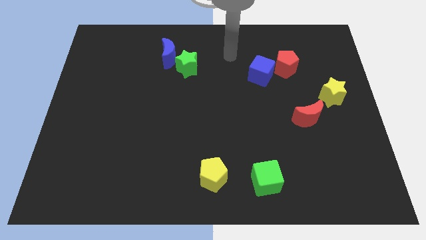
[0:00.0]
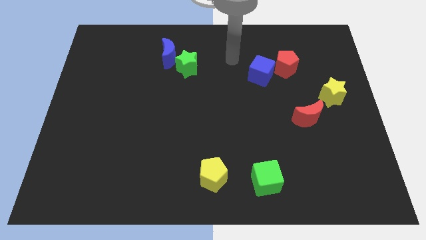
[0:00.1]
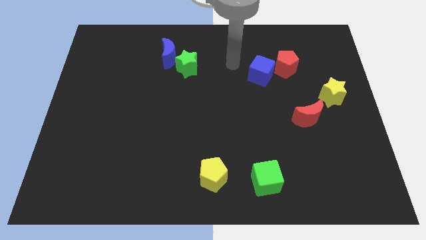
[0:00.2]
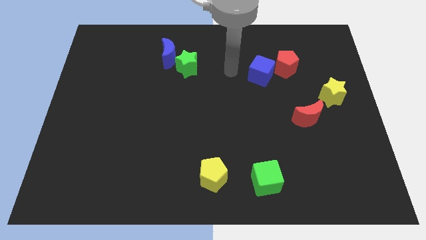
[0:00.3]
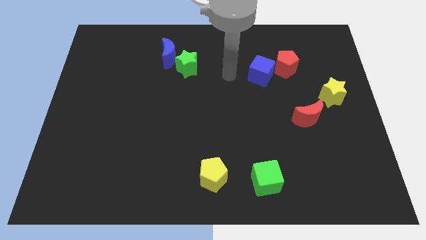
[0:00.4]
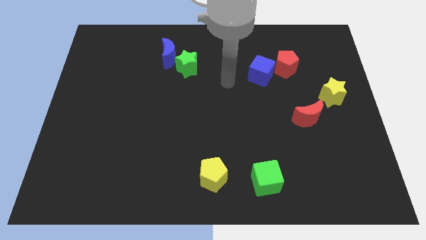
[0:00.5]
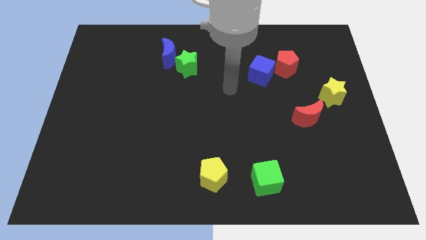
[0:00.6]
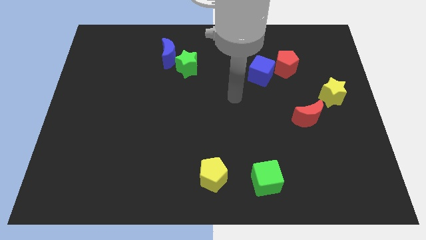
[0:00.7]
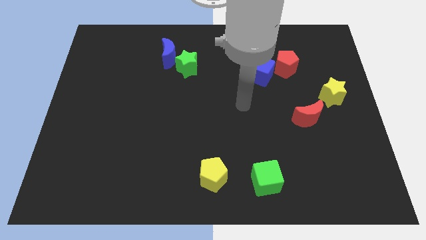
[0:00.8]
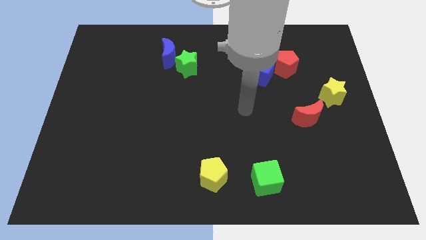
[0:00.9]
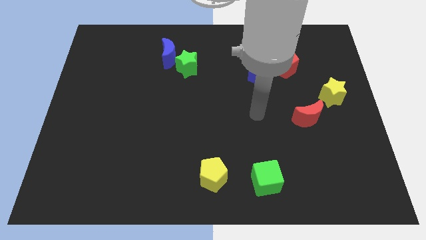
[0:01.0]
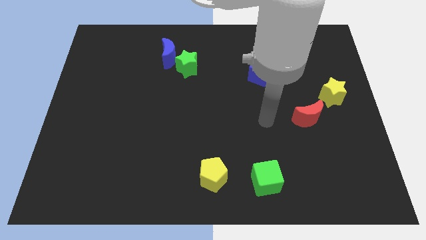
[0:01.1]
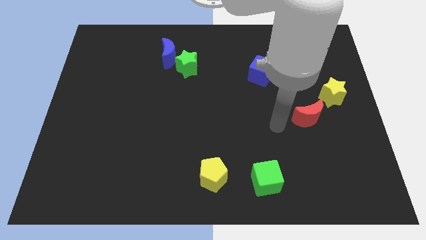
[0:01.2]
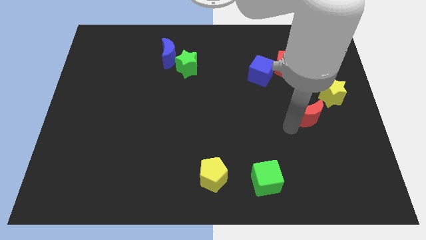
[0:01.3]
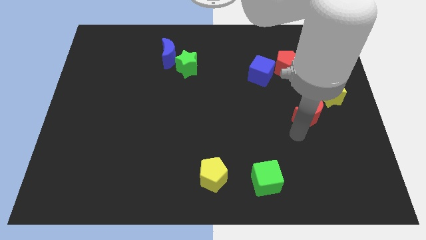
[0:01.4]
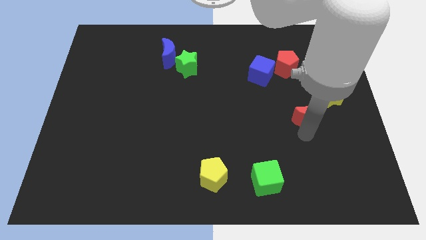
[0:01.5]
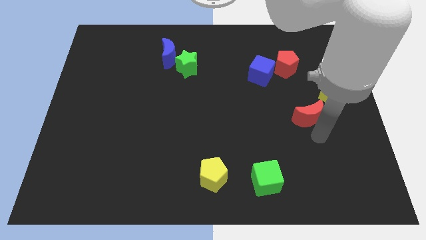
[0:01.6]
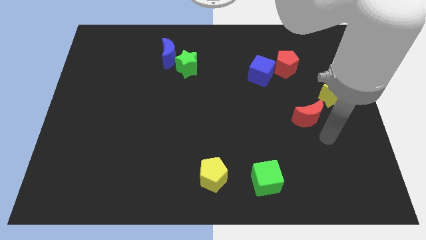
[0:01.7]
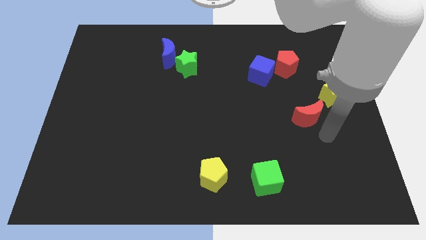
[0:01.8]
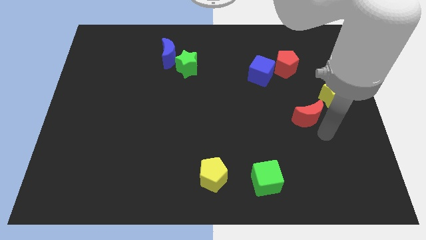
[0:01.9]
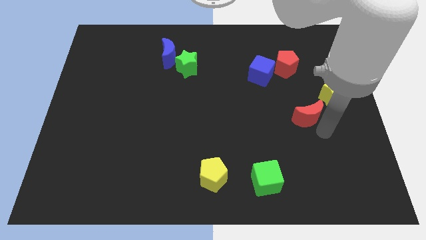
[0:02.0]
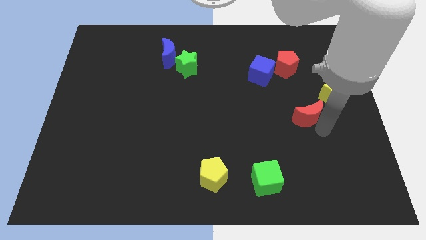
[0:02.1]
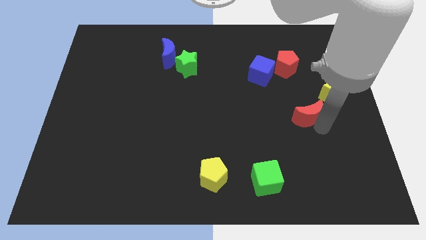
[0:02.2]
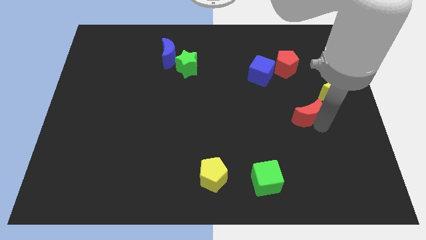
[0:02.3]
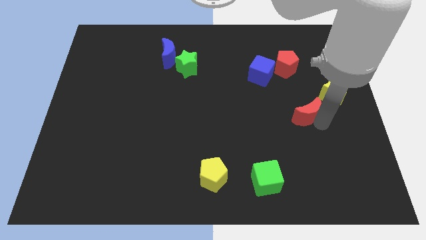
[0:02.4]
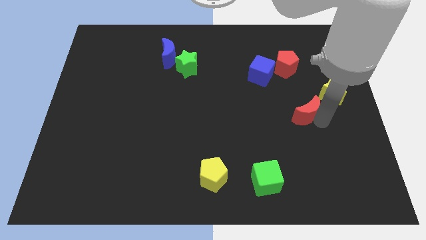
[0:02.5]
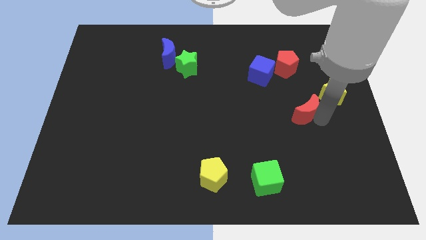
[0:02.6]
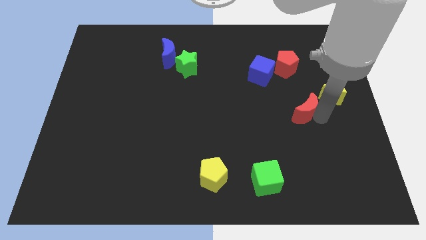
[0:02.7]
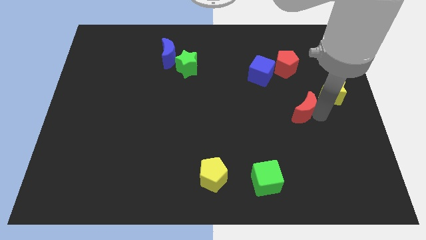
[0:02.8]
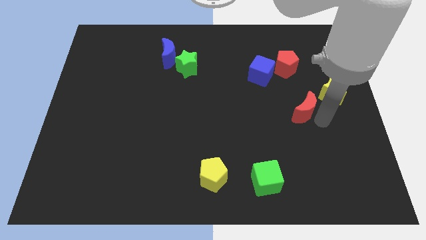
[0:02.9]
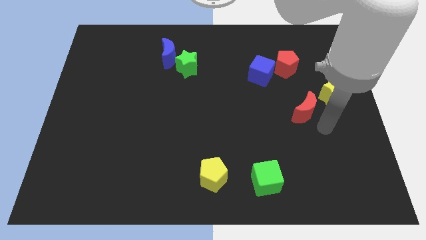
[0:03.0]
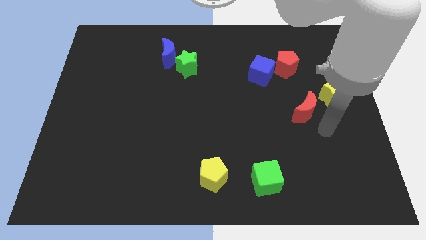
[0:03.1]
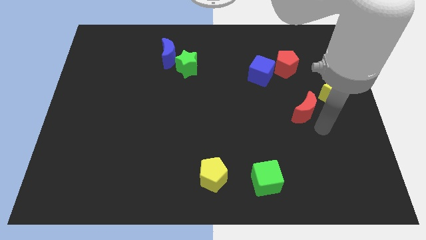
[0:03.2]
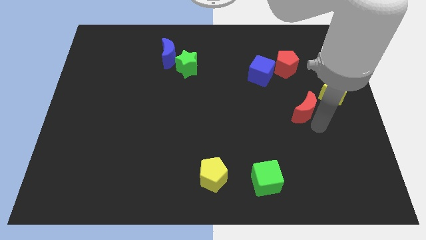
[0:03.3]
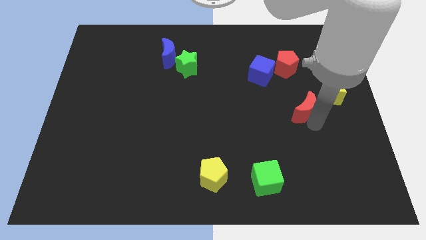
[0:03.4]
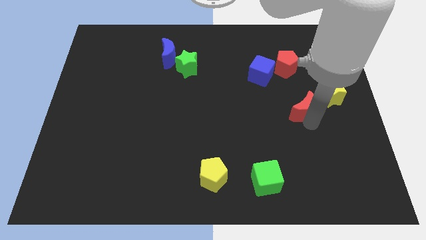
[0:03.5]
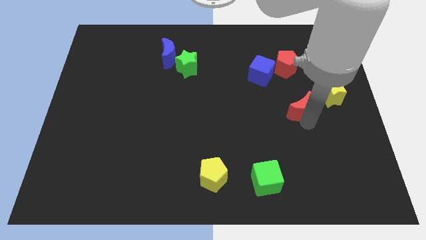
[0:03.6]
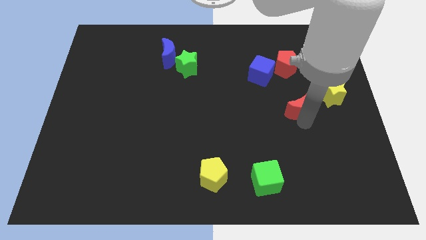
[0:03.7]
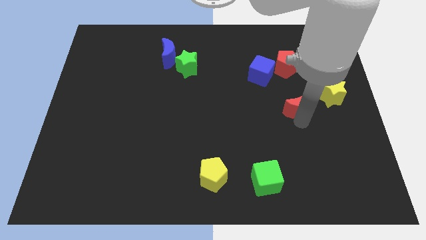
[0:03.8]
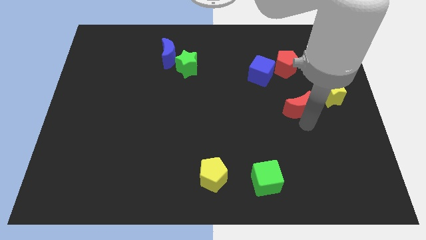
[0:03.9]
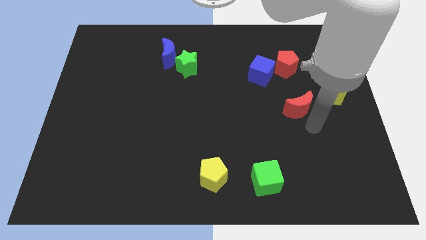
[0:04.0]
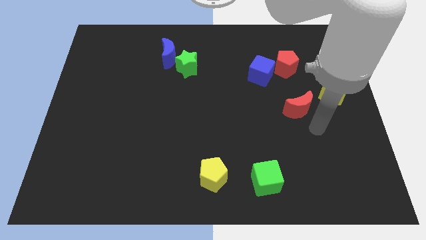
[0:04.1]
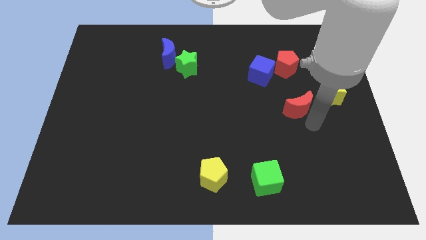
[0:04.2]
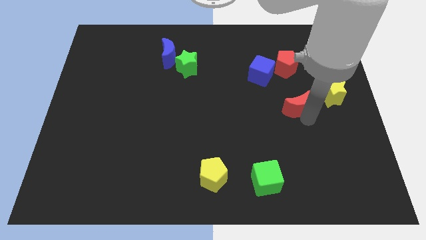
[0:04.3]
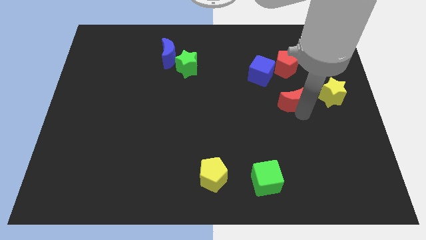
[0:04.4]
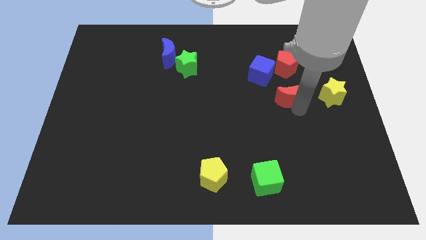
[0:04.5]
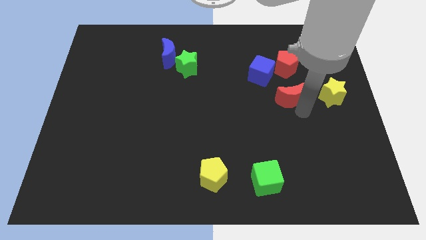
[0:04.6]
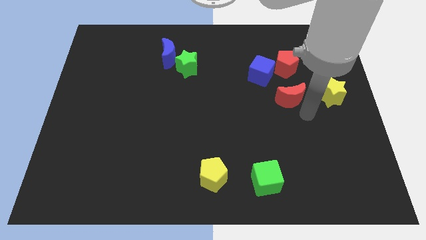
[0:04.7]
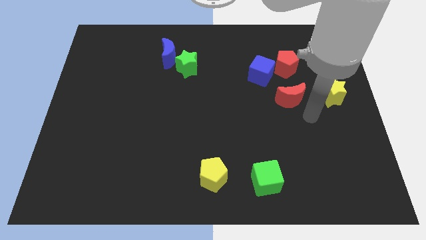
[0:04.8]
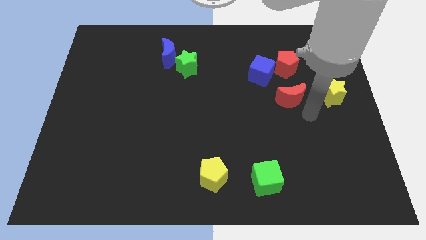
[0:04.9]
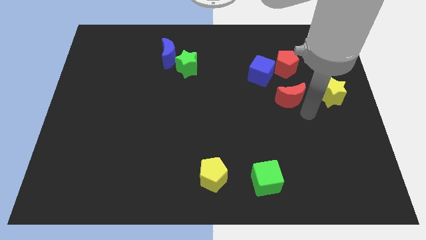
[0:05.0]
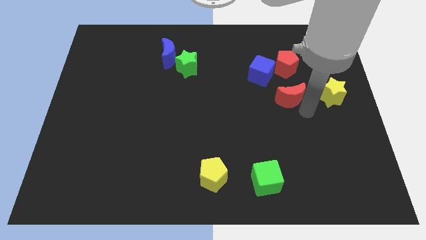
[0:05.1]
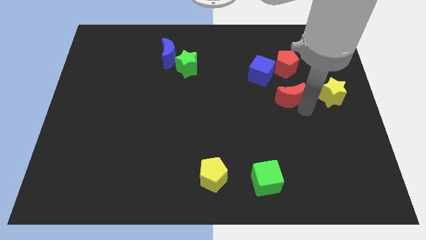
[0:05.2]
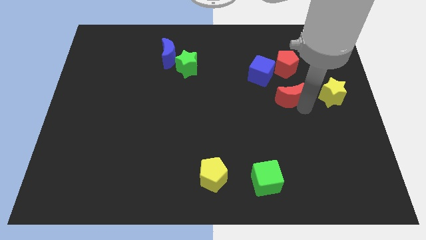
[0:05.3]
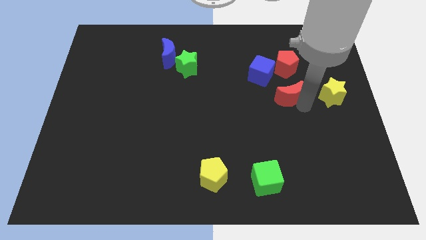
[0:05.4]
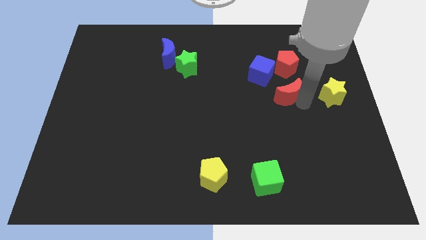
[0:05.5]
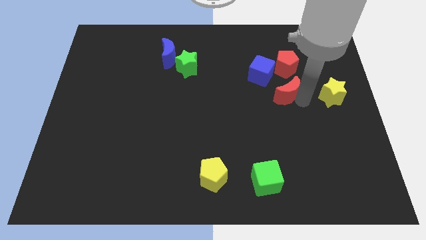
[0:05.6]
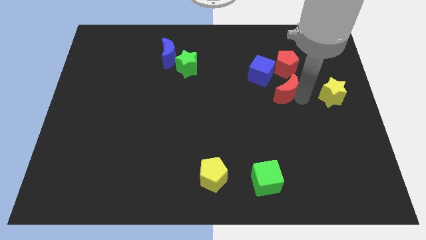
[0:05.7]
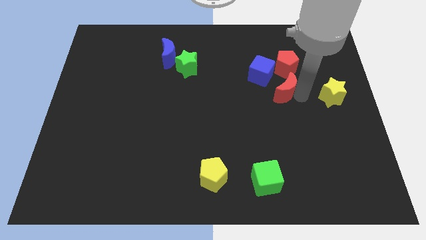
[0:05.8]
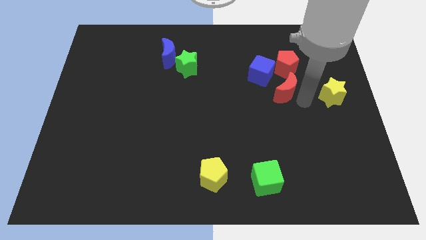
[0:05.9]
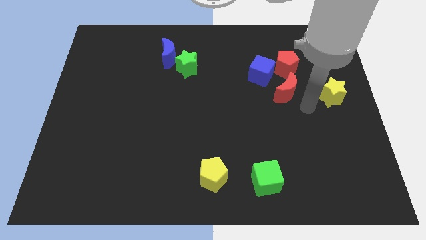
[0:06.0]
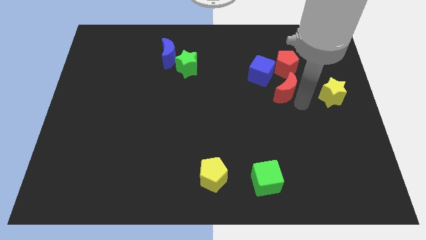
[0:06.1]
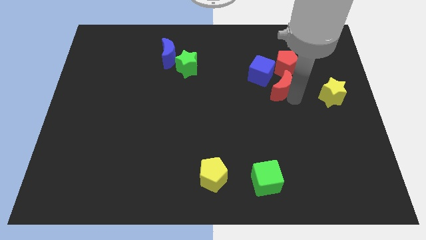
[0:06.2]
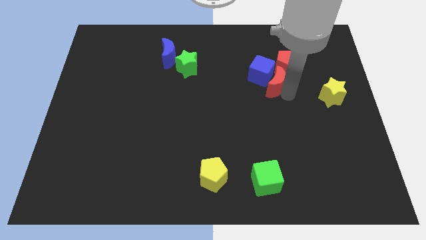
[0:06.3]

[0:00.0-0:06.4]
push the red moon close to the blue cube

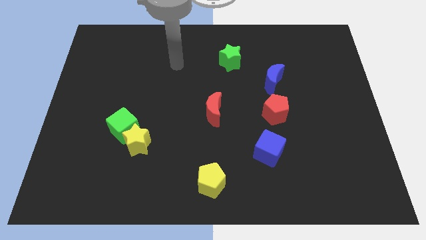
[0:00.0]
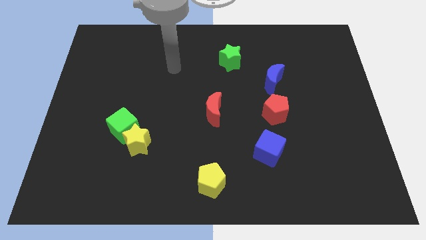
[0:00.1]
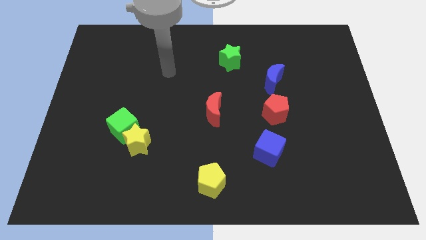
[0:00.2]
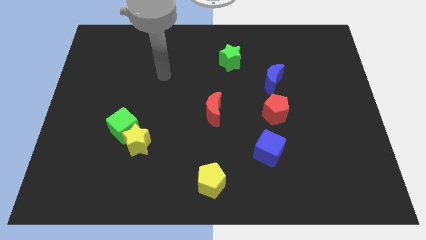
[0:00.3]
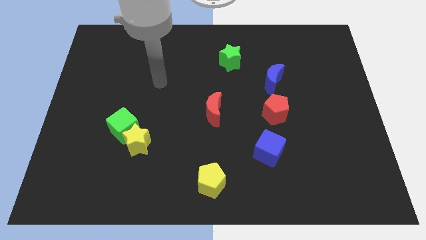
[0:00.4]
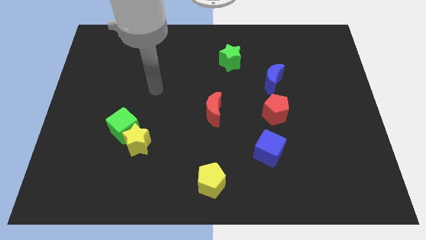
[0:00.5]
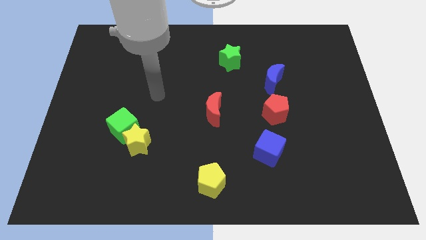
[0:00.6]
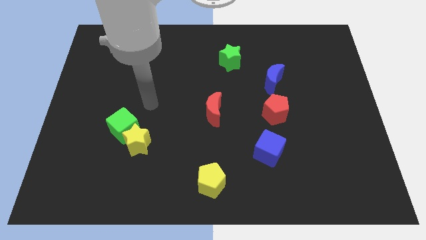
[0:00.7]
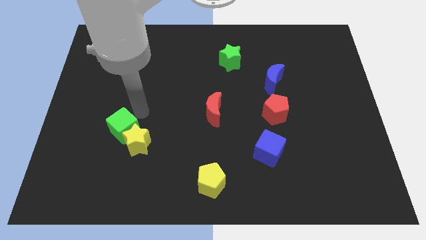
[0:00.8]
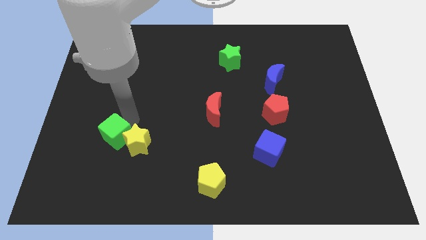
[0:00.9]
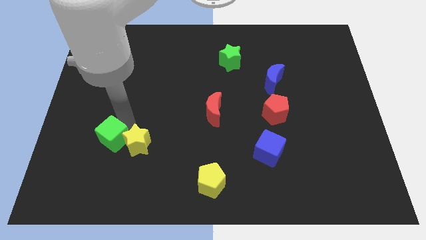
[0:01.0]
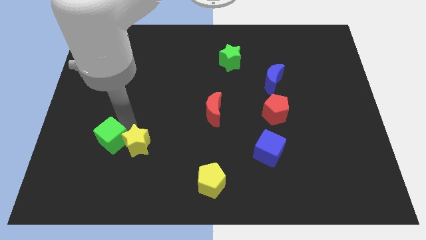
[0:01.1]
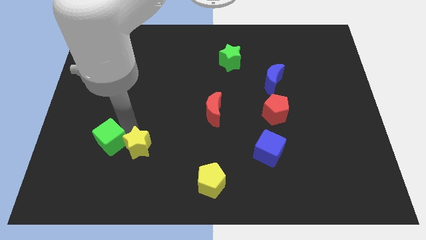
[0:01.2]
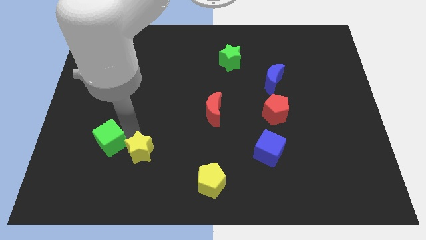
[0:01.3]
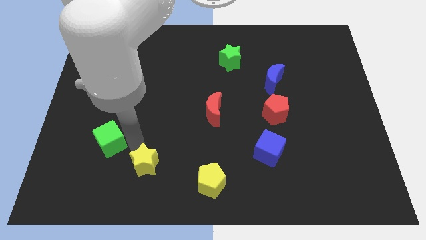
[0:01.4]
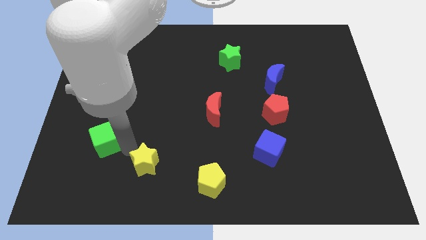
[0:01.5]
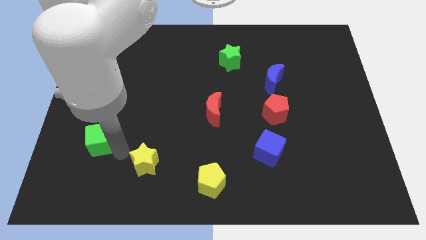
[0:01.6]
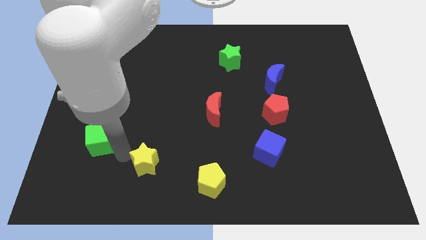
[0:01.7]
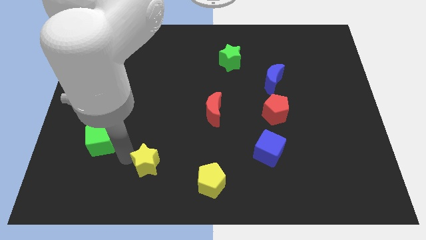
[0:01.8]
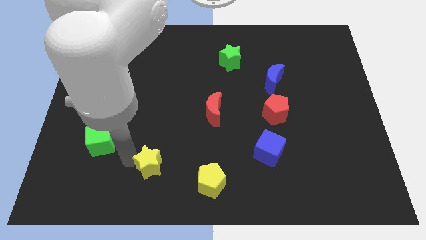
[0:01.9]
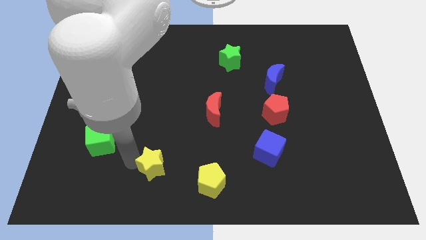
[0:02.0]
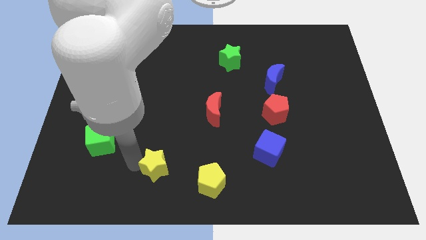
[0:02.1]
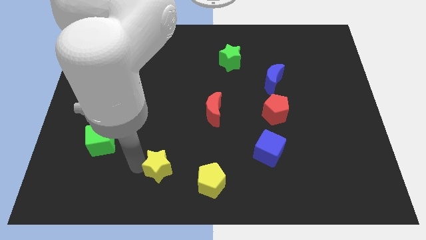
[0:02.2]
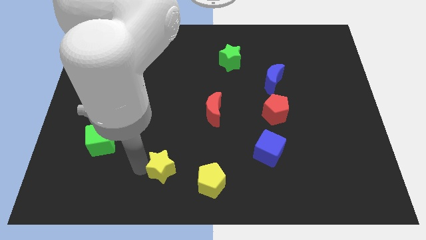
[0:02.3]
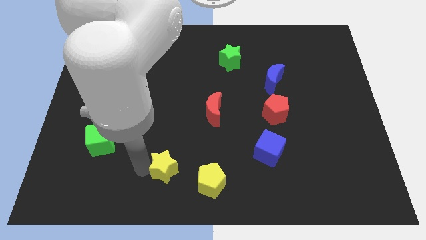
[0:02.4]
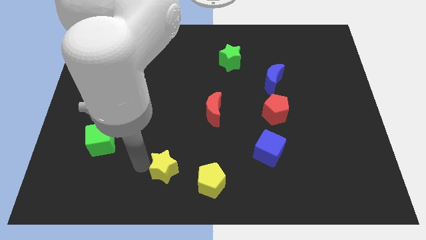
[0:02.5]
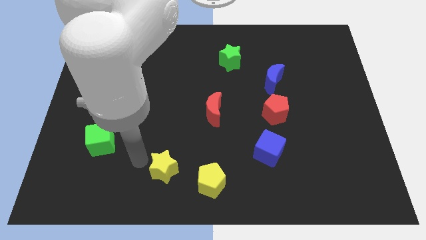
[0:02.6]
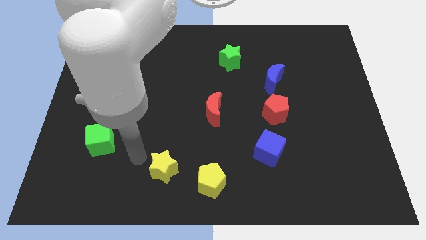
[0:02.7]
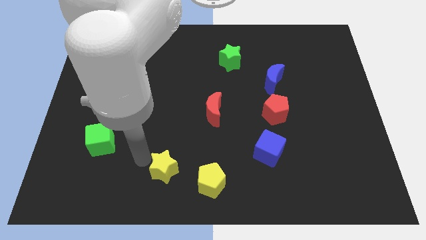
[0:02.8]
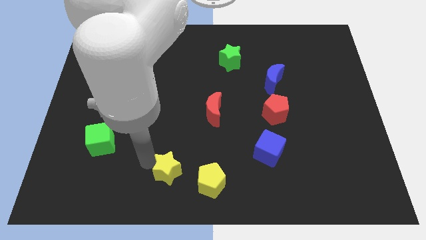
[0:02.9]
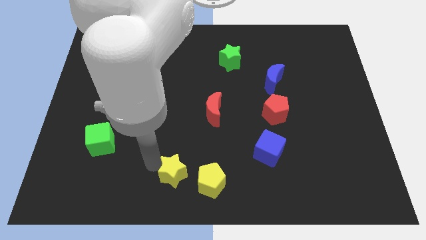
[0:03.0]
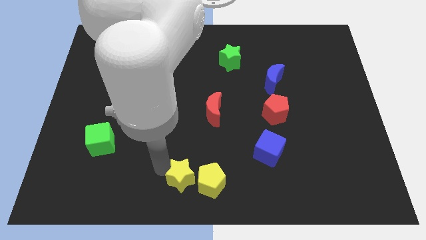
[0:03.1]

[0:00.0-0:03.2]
push the yellow star next to the yellow pentagon
